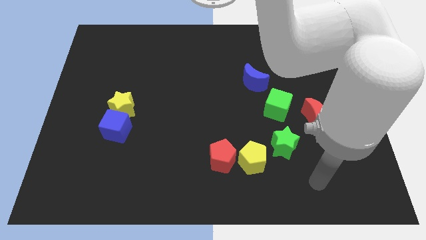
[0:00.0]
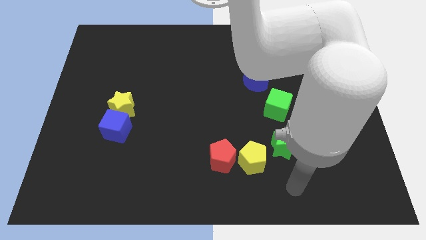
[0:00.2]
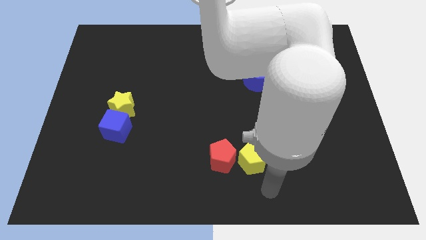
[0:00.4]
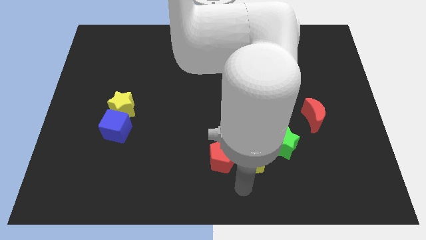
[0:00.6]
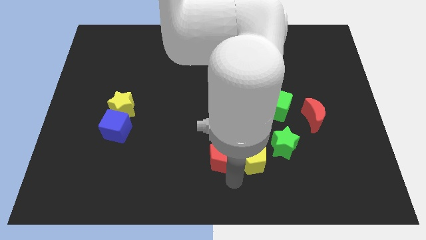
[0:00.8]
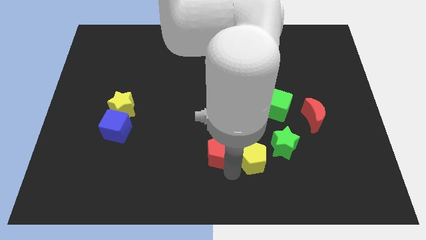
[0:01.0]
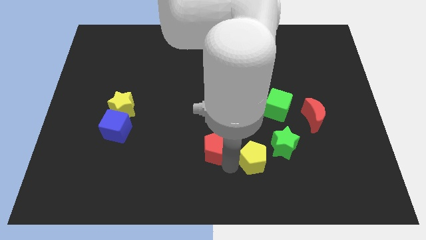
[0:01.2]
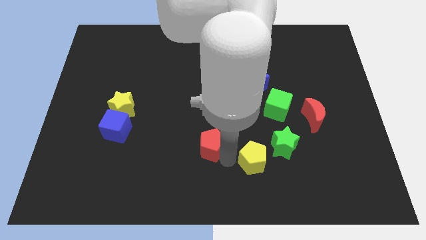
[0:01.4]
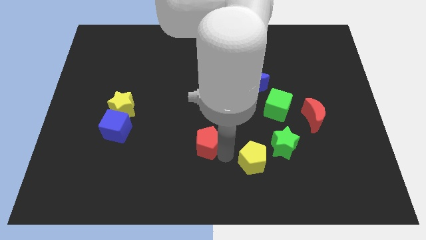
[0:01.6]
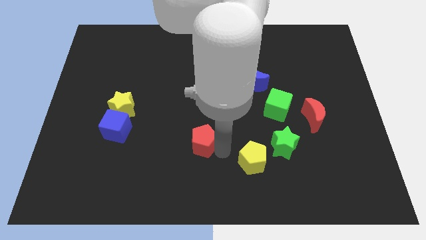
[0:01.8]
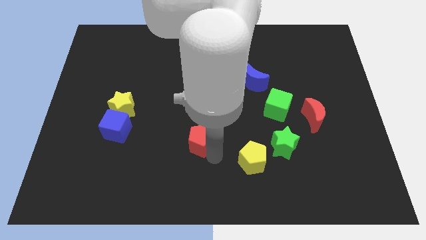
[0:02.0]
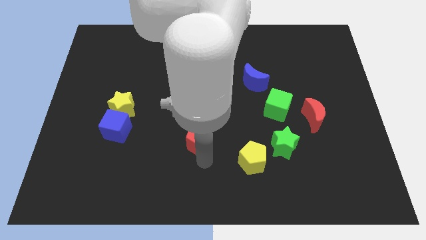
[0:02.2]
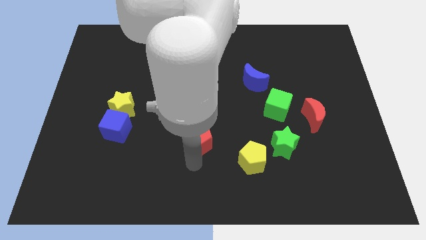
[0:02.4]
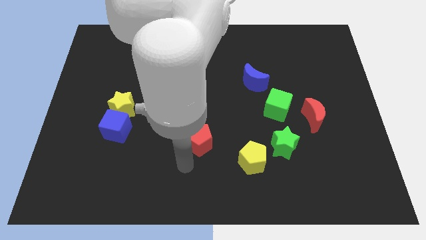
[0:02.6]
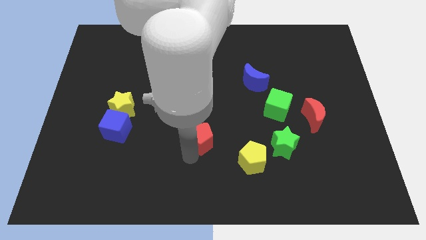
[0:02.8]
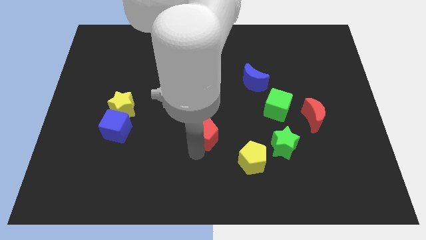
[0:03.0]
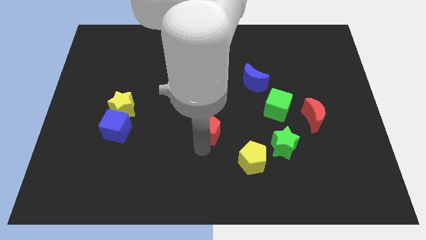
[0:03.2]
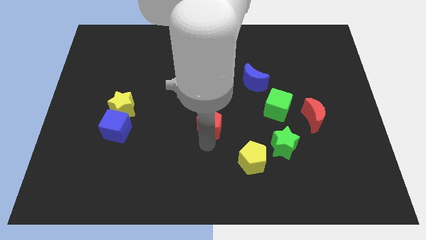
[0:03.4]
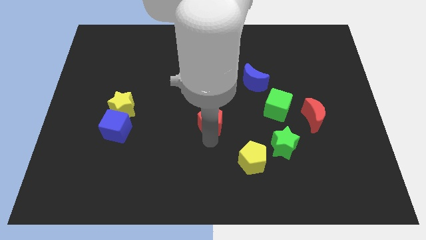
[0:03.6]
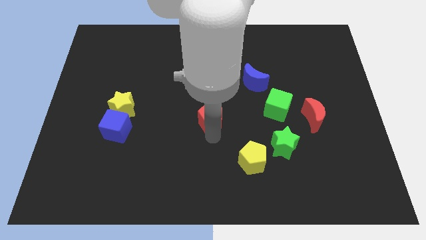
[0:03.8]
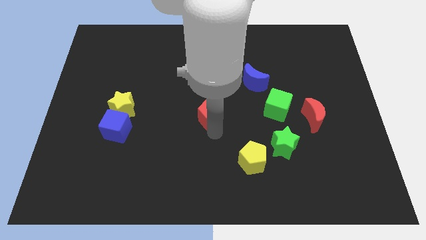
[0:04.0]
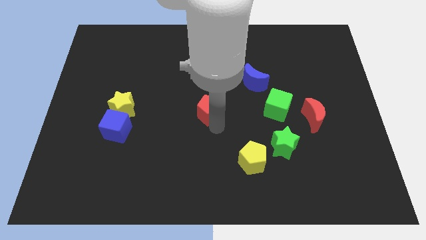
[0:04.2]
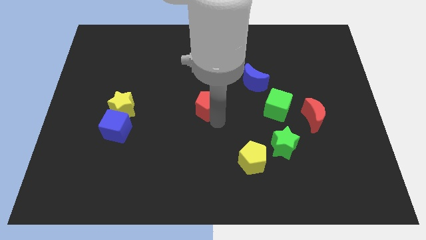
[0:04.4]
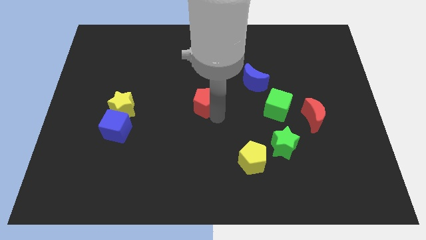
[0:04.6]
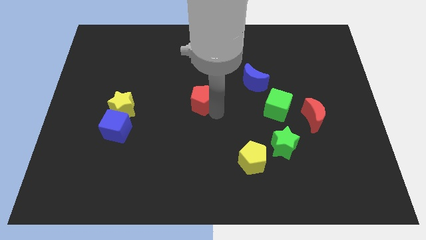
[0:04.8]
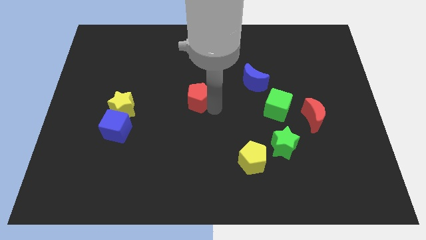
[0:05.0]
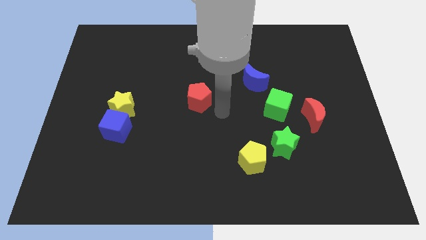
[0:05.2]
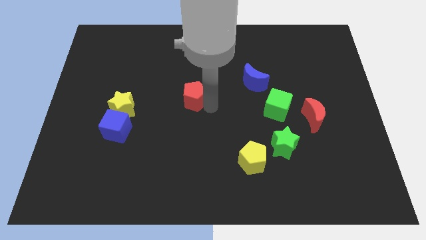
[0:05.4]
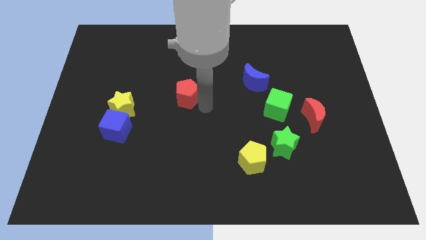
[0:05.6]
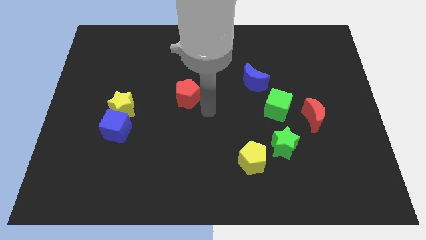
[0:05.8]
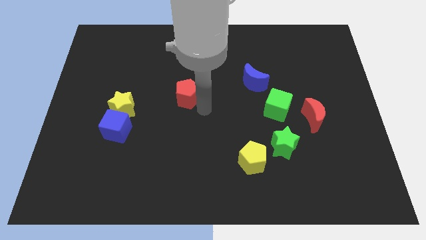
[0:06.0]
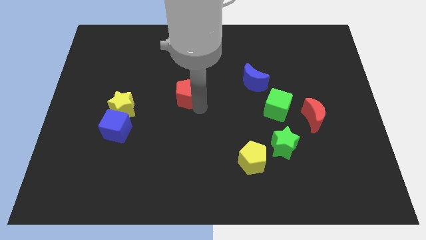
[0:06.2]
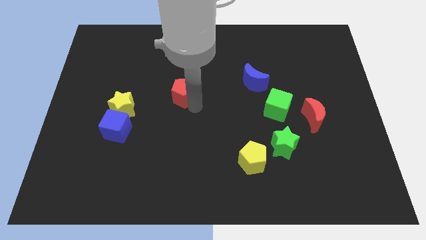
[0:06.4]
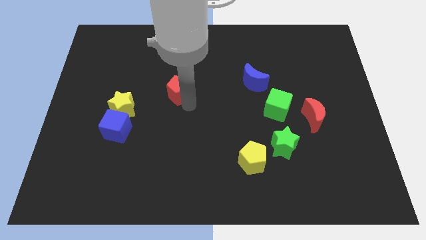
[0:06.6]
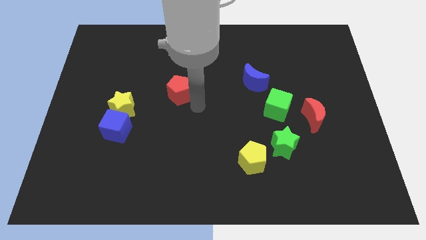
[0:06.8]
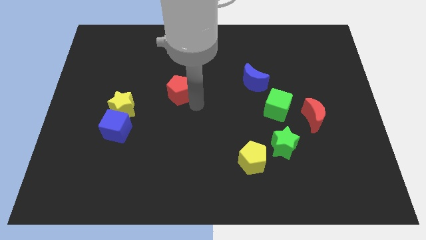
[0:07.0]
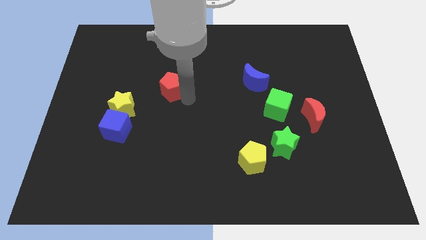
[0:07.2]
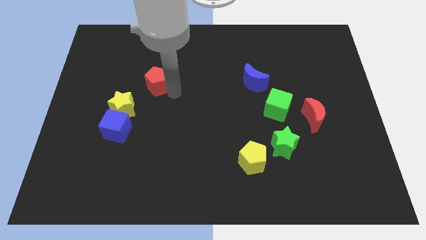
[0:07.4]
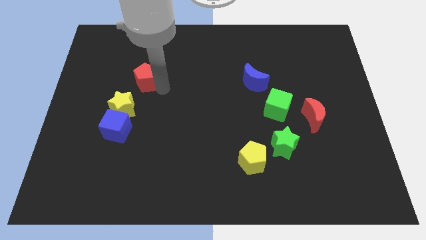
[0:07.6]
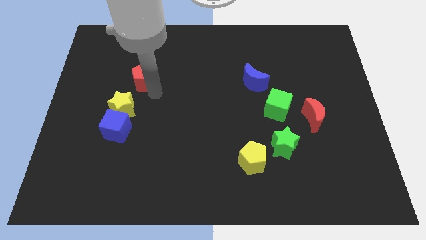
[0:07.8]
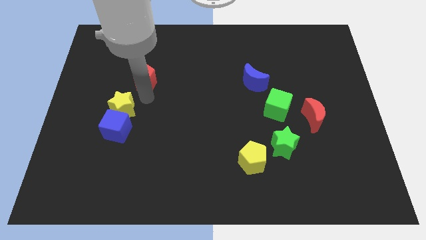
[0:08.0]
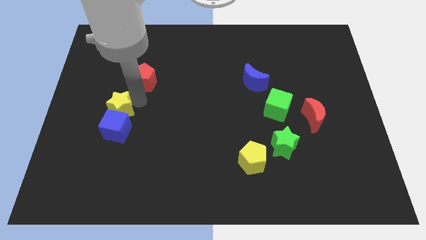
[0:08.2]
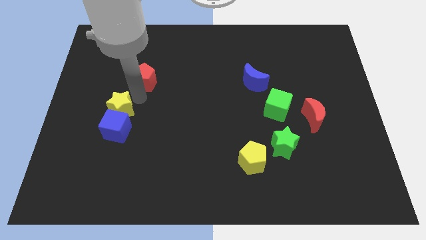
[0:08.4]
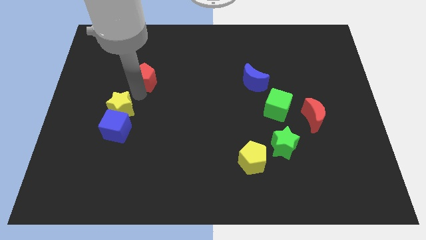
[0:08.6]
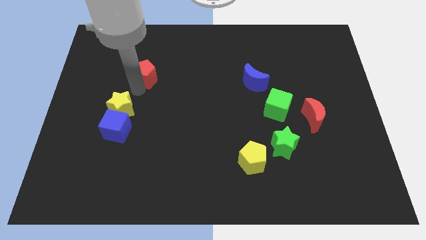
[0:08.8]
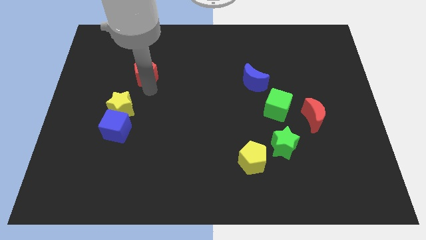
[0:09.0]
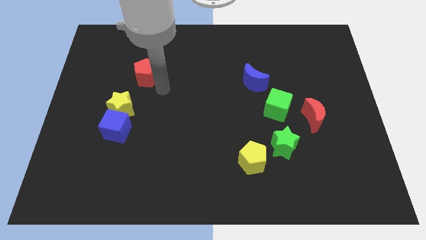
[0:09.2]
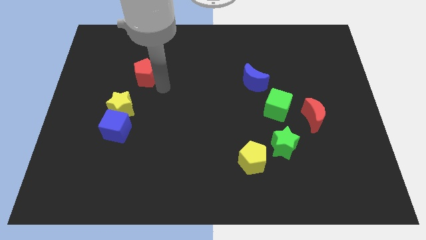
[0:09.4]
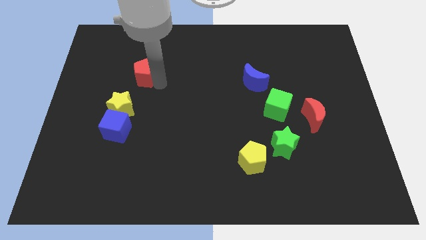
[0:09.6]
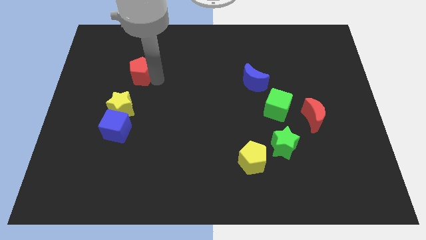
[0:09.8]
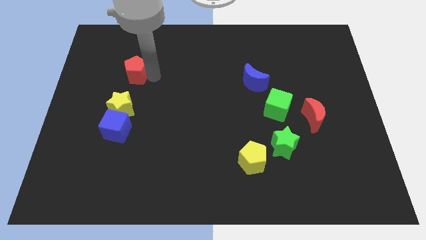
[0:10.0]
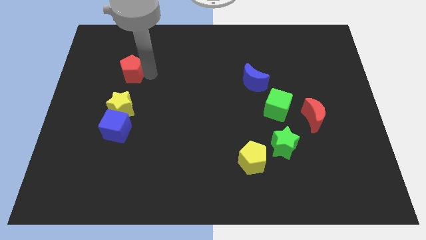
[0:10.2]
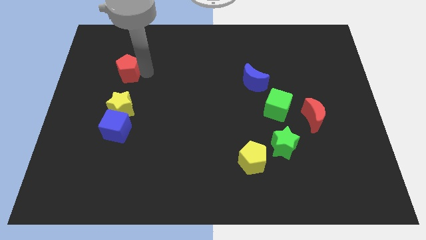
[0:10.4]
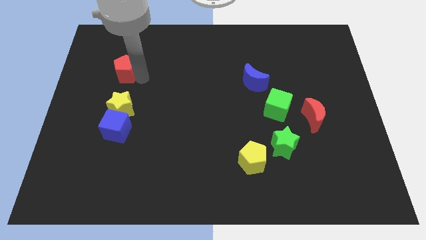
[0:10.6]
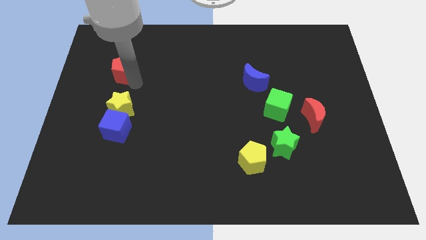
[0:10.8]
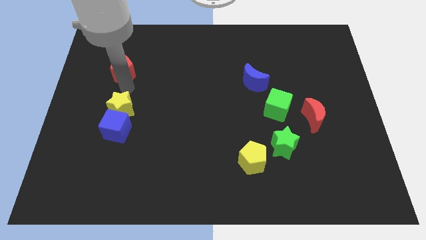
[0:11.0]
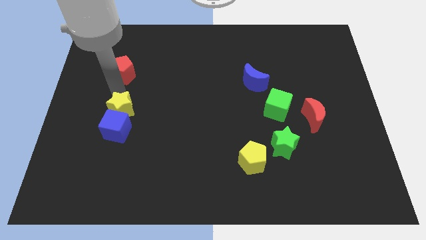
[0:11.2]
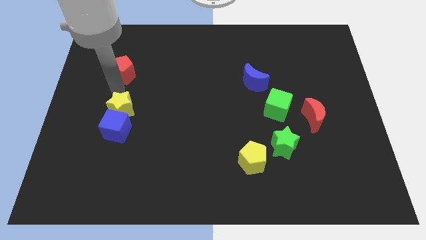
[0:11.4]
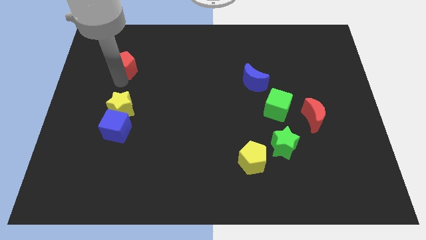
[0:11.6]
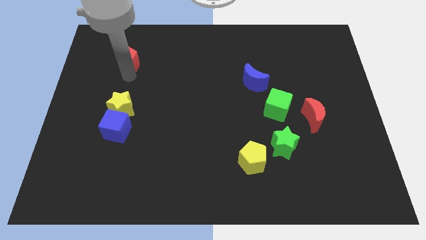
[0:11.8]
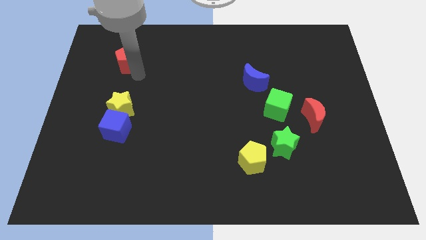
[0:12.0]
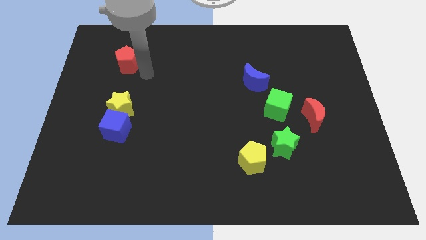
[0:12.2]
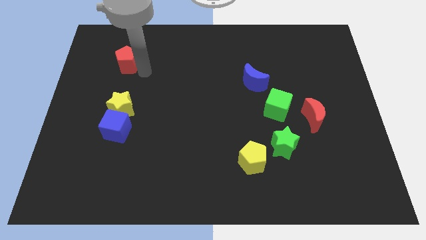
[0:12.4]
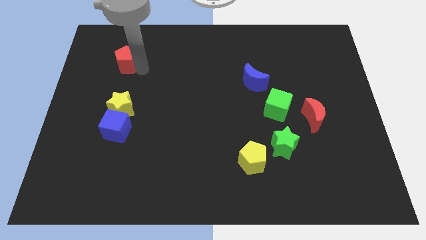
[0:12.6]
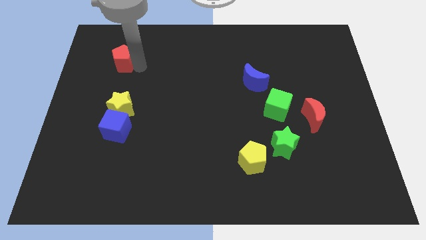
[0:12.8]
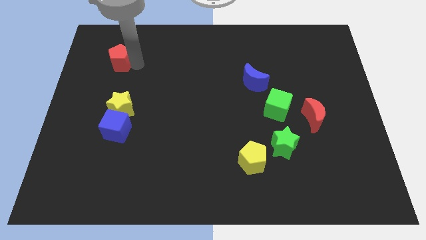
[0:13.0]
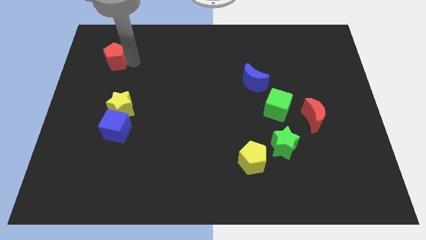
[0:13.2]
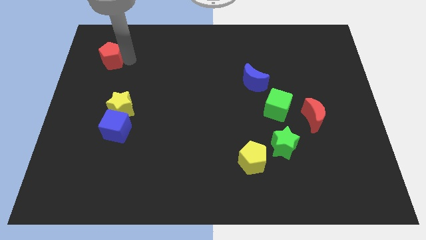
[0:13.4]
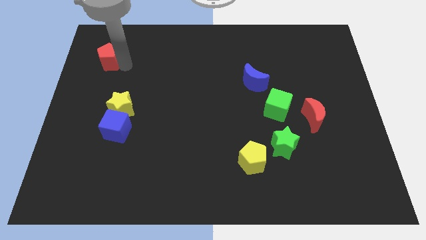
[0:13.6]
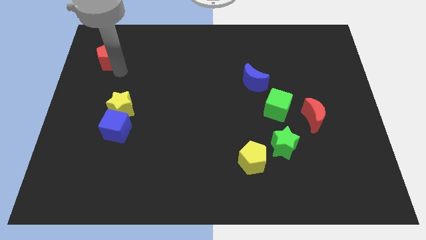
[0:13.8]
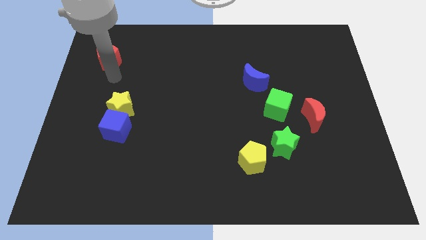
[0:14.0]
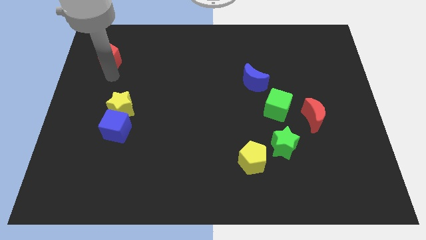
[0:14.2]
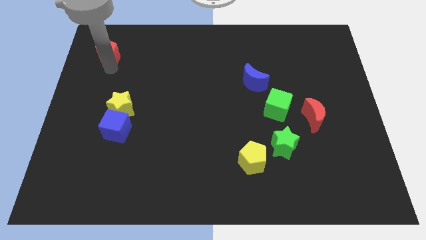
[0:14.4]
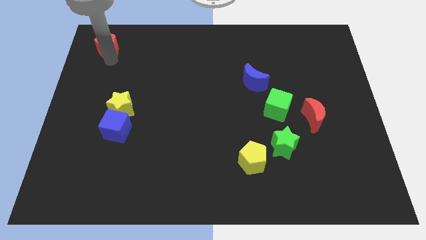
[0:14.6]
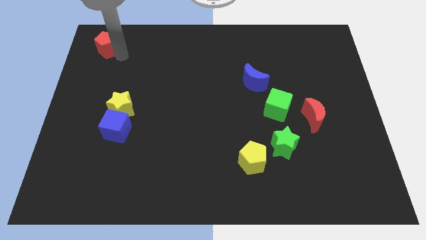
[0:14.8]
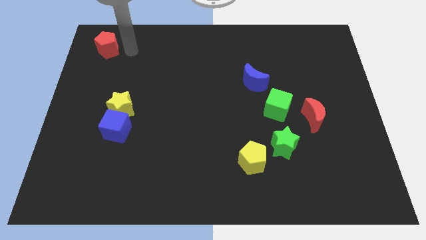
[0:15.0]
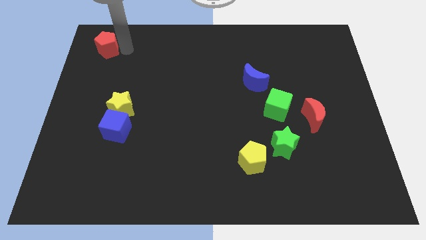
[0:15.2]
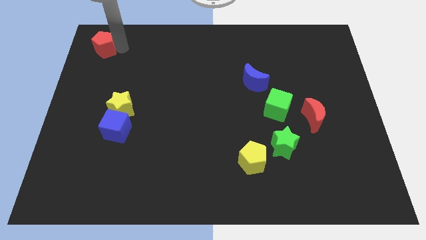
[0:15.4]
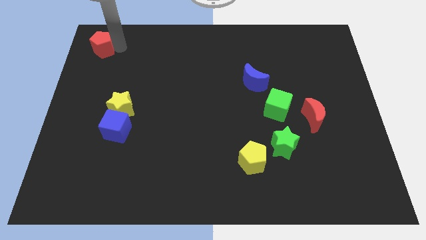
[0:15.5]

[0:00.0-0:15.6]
put the red pentagon to the upper left corner
